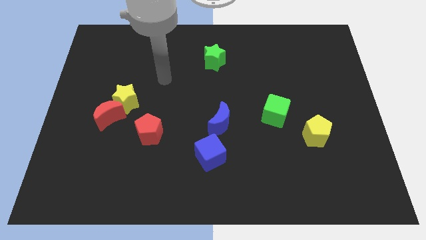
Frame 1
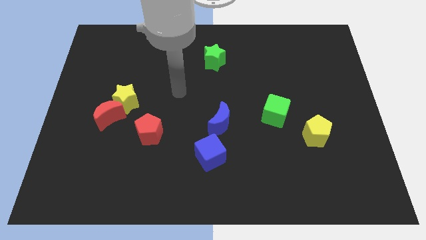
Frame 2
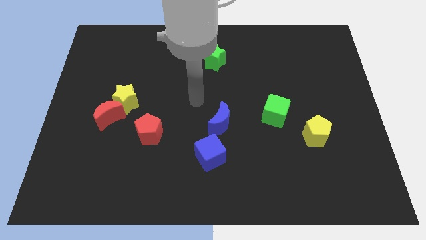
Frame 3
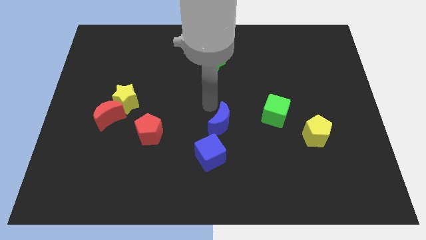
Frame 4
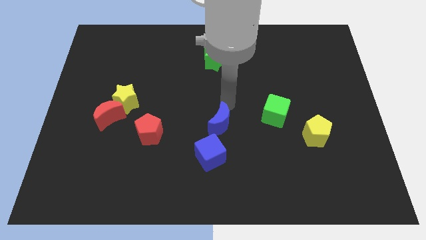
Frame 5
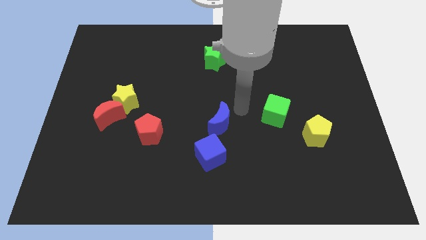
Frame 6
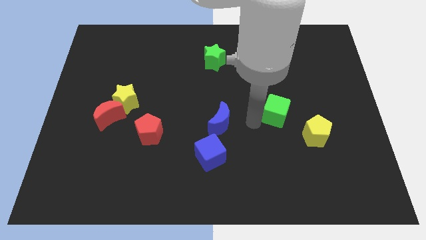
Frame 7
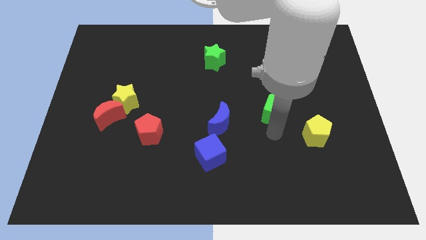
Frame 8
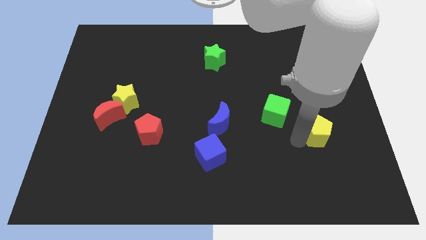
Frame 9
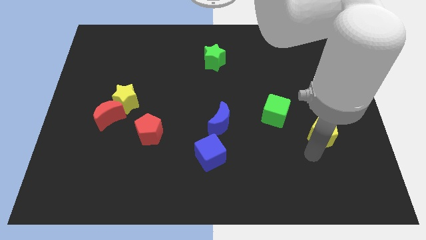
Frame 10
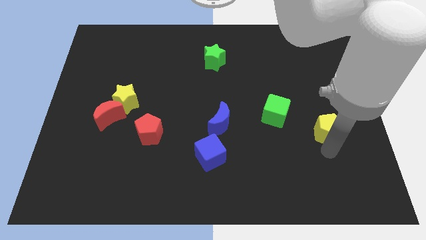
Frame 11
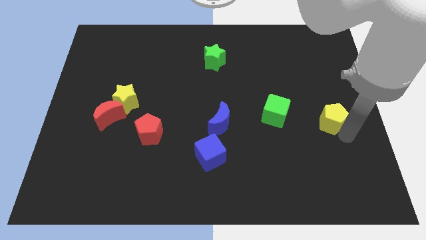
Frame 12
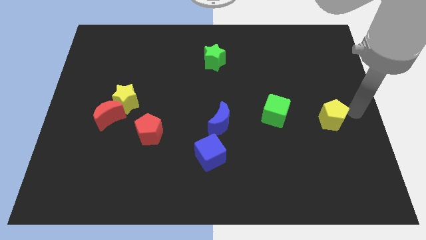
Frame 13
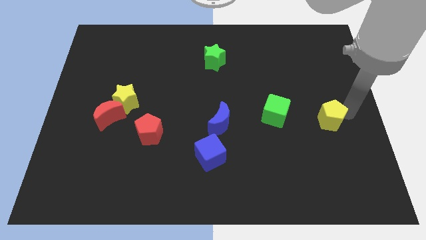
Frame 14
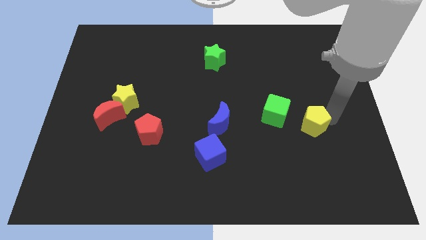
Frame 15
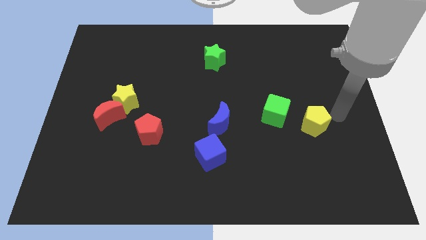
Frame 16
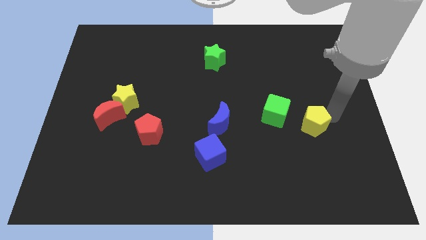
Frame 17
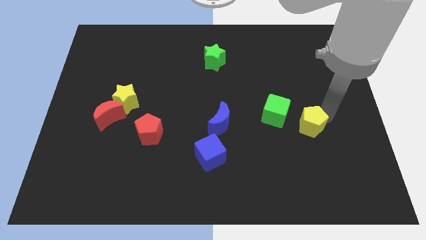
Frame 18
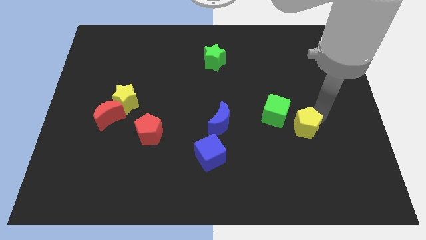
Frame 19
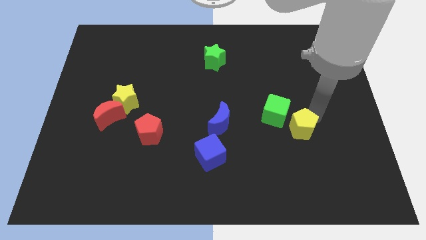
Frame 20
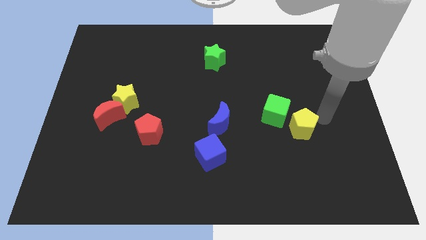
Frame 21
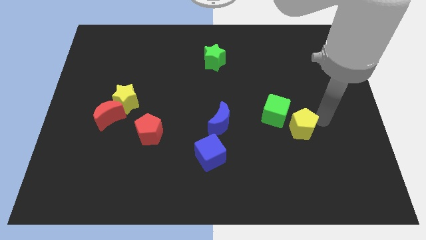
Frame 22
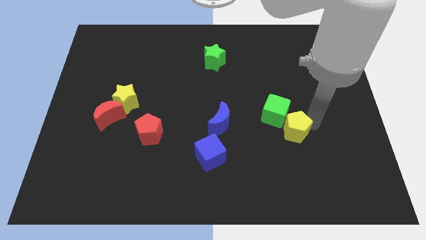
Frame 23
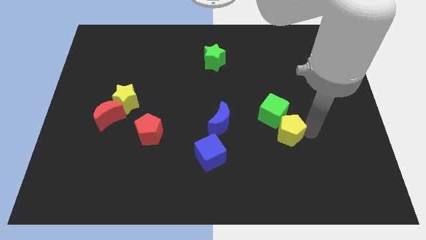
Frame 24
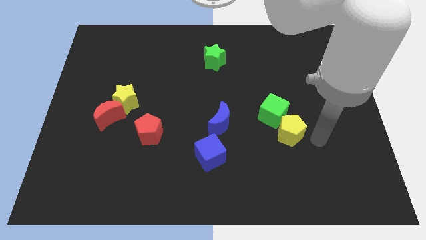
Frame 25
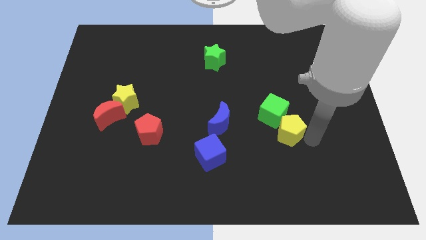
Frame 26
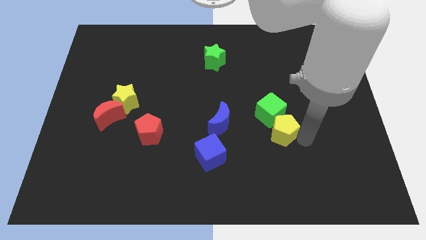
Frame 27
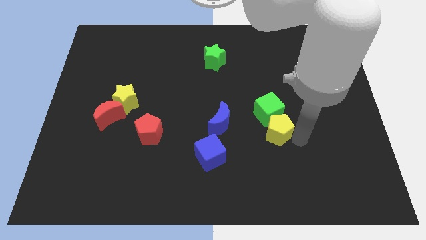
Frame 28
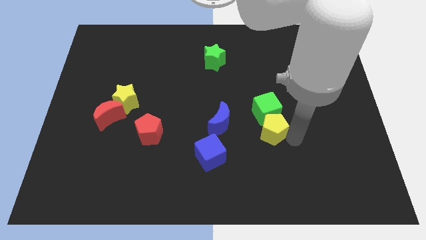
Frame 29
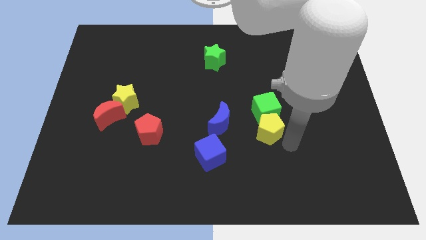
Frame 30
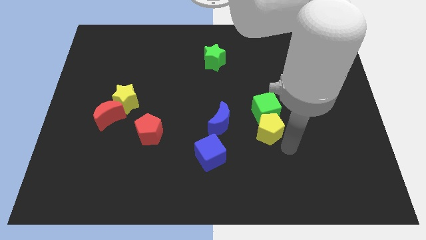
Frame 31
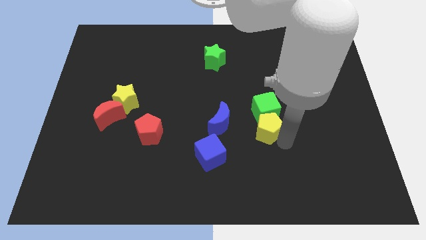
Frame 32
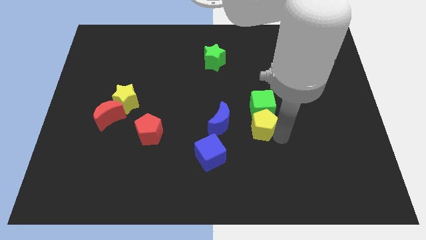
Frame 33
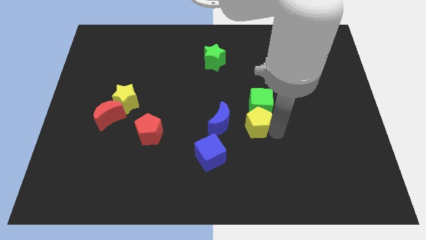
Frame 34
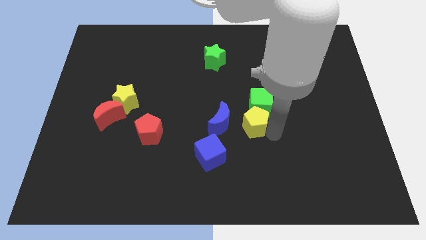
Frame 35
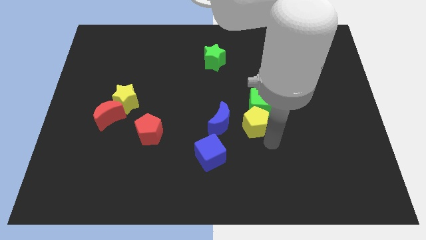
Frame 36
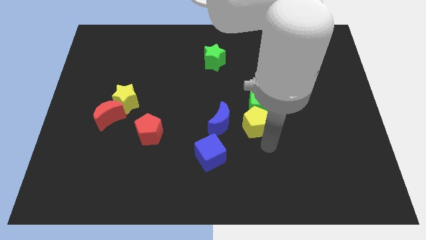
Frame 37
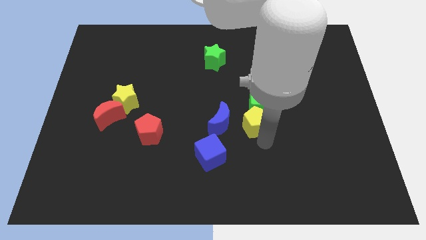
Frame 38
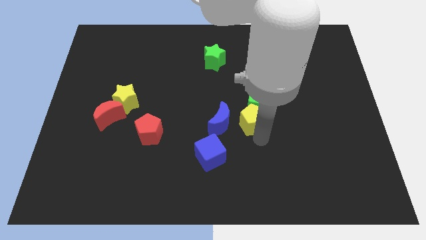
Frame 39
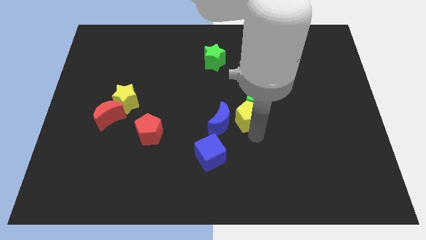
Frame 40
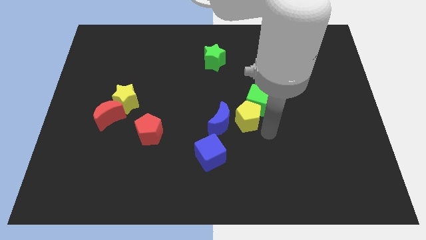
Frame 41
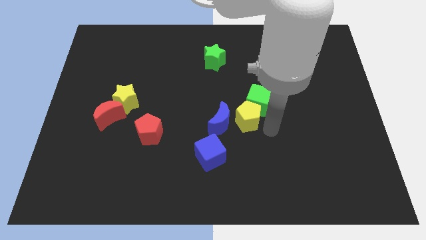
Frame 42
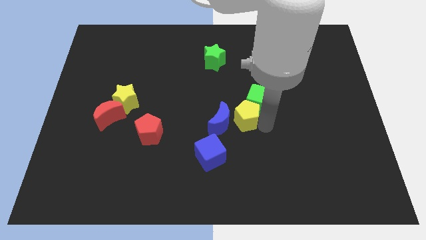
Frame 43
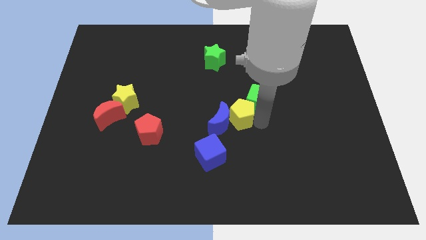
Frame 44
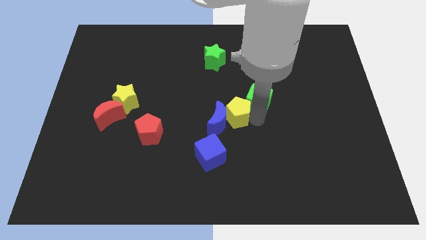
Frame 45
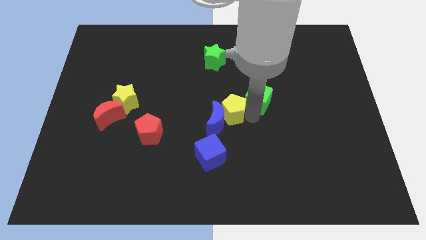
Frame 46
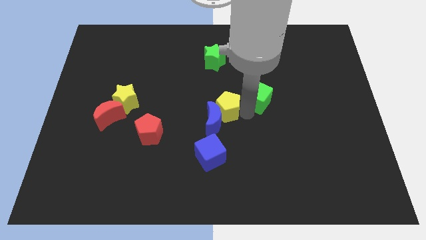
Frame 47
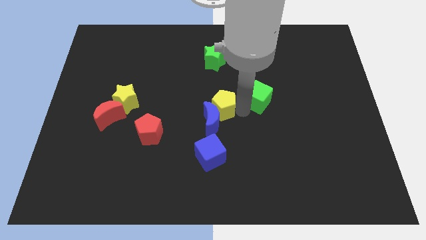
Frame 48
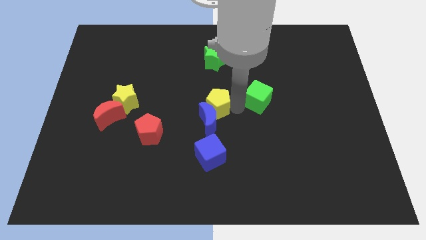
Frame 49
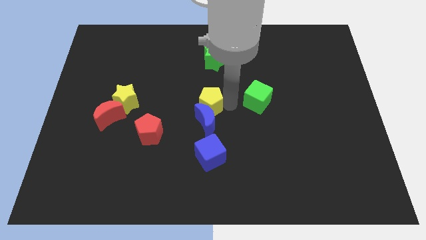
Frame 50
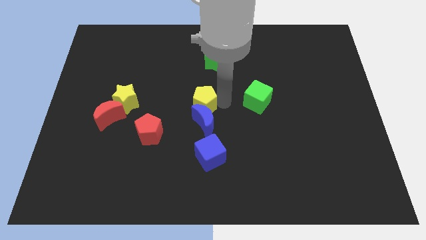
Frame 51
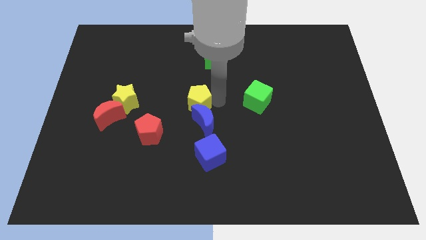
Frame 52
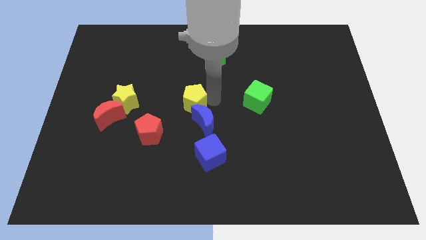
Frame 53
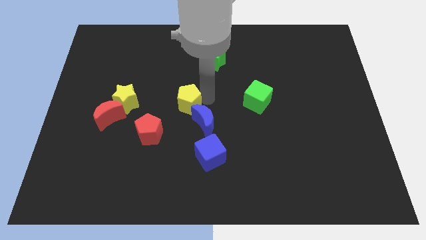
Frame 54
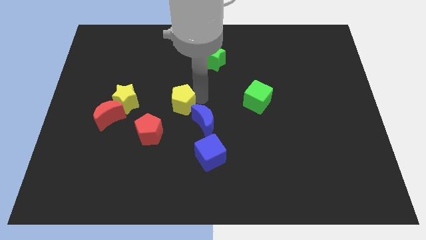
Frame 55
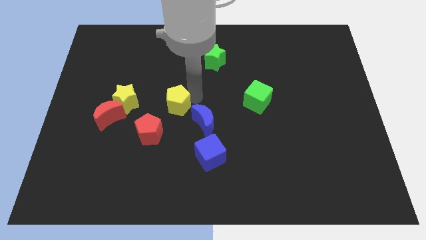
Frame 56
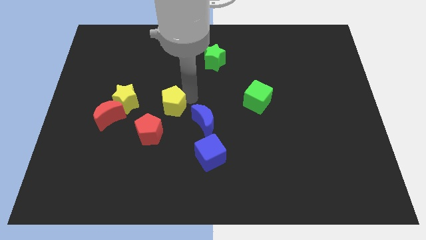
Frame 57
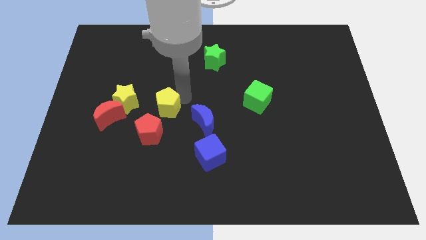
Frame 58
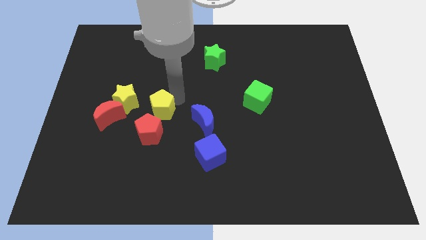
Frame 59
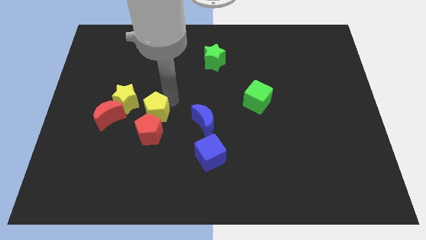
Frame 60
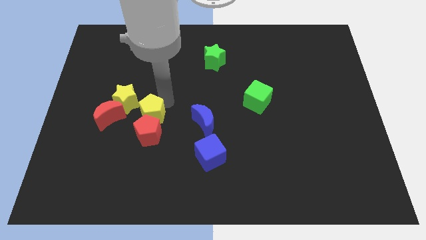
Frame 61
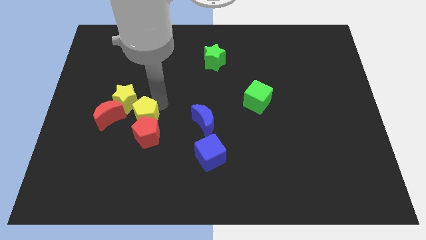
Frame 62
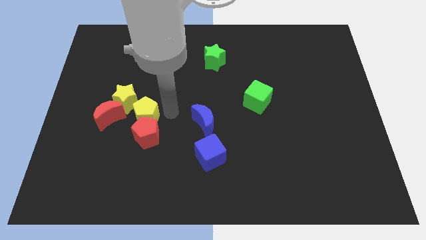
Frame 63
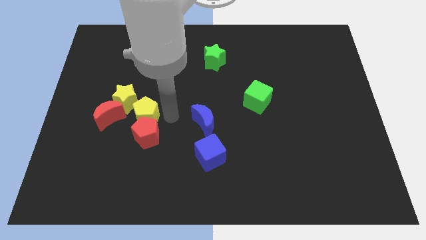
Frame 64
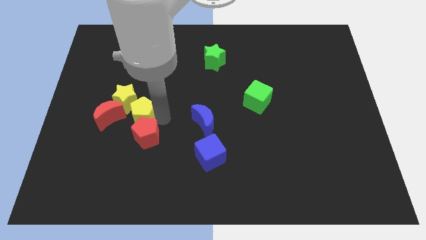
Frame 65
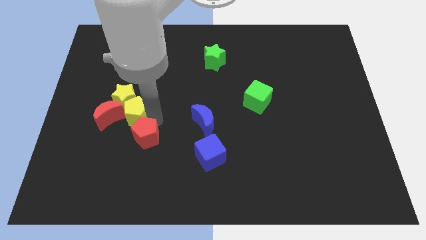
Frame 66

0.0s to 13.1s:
move the yellow pentagon towards the red moon

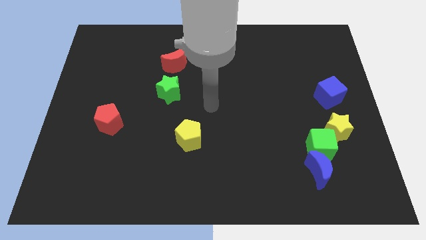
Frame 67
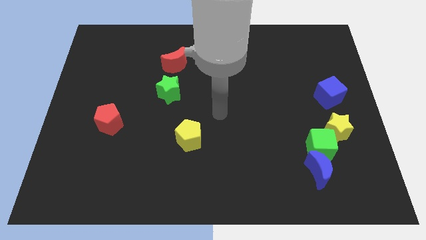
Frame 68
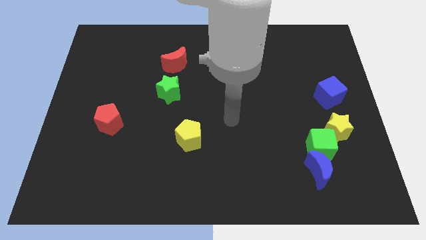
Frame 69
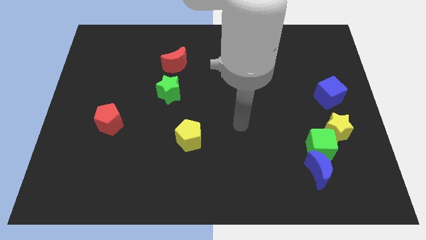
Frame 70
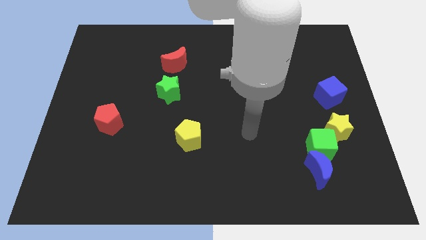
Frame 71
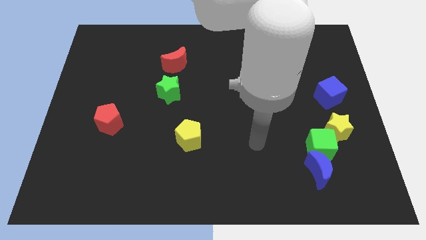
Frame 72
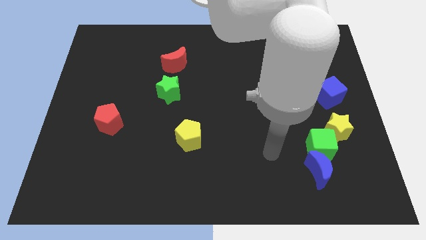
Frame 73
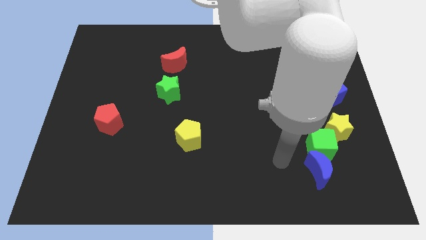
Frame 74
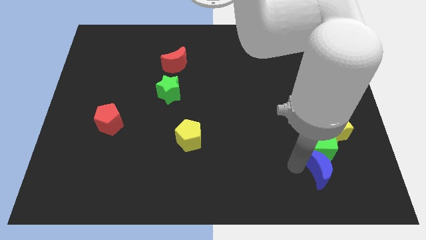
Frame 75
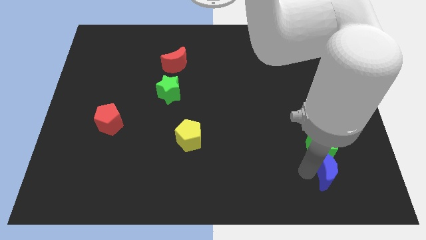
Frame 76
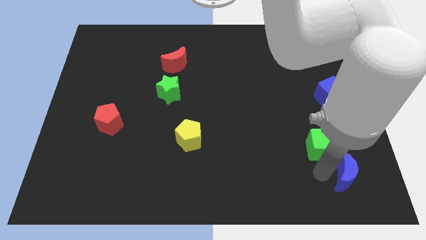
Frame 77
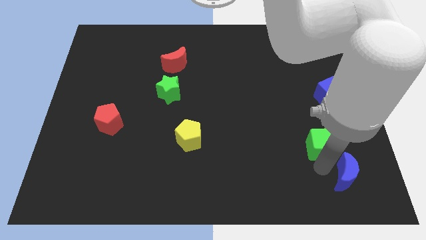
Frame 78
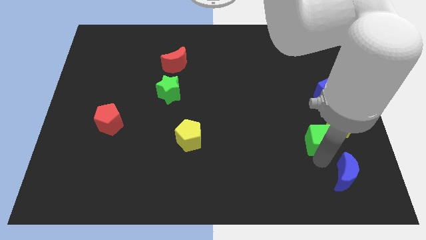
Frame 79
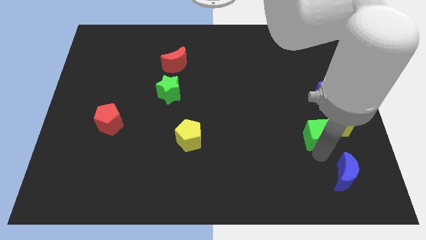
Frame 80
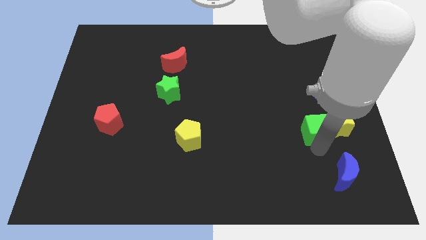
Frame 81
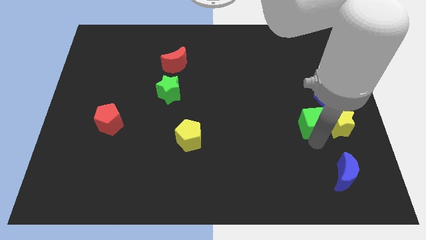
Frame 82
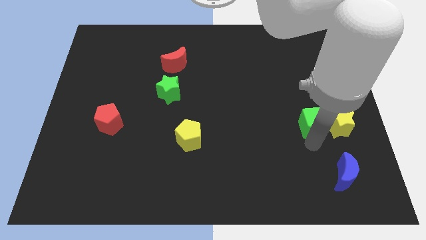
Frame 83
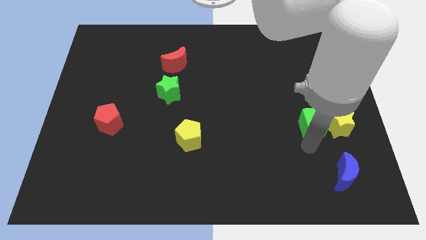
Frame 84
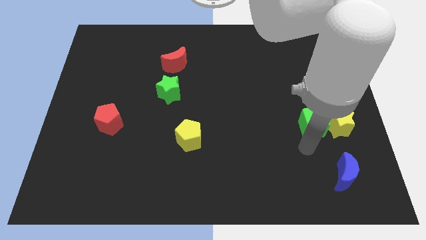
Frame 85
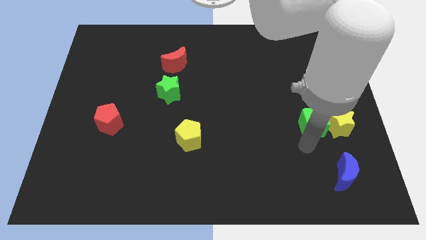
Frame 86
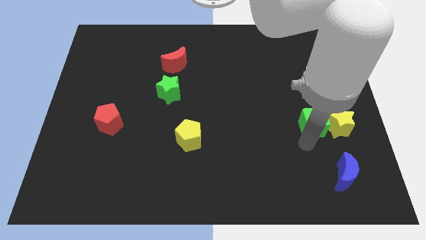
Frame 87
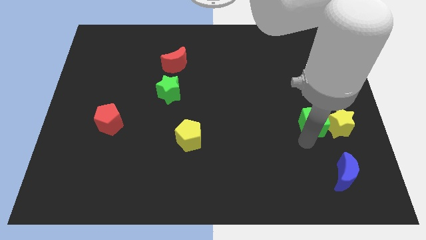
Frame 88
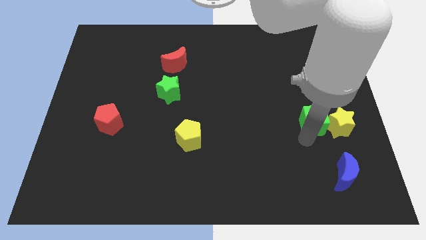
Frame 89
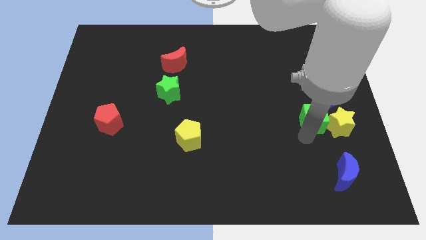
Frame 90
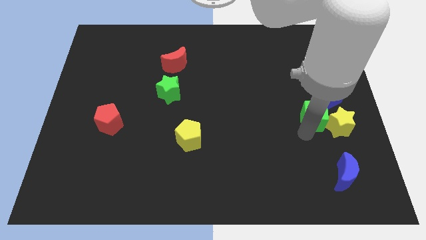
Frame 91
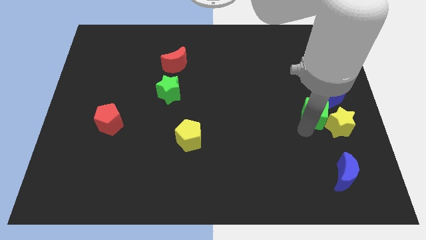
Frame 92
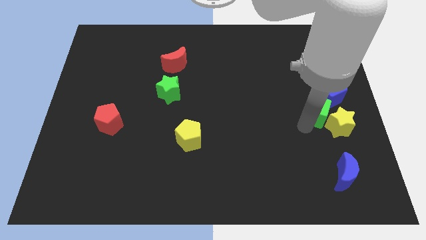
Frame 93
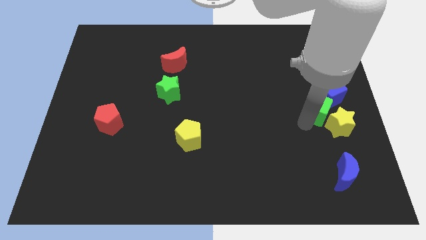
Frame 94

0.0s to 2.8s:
slide the green cube next to the blue cube
